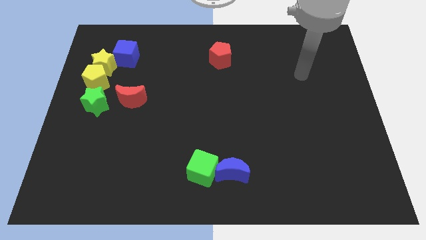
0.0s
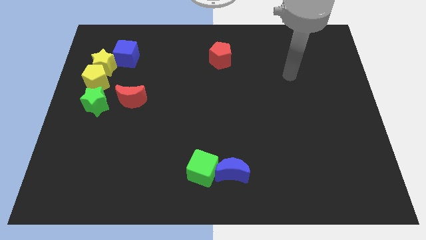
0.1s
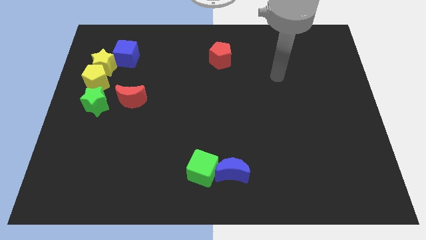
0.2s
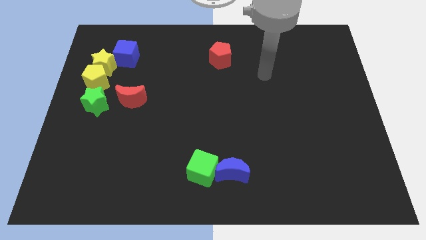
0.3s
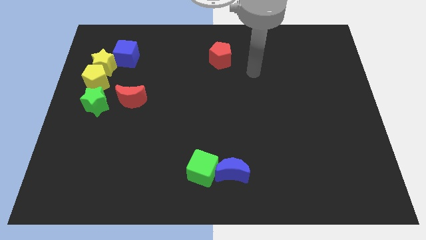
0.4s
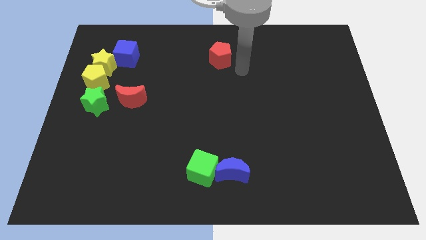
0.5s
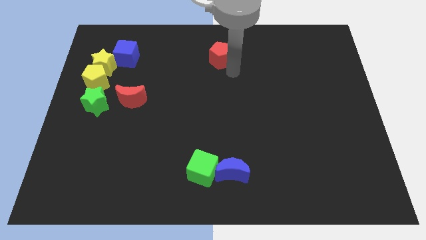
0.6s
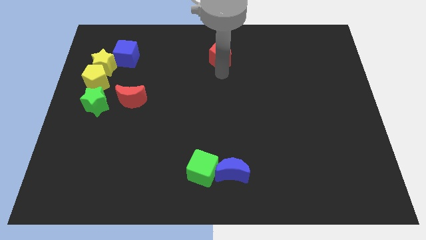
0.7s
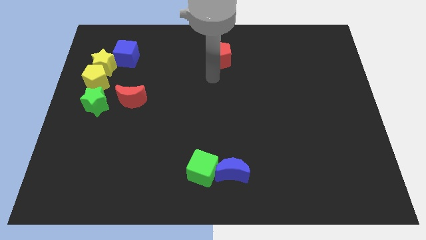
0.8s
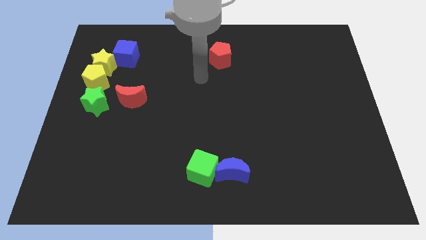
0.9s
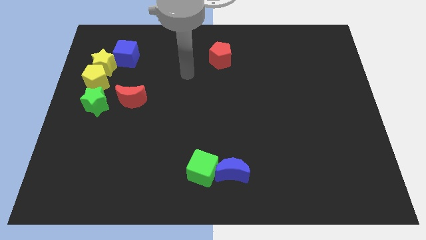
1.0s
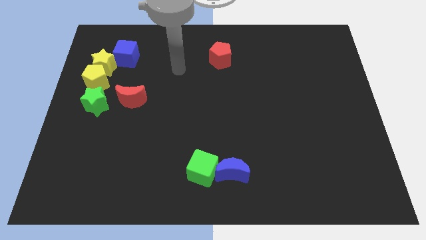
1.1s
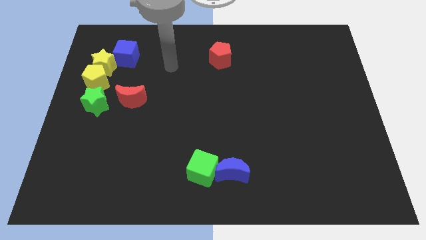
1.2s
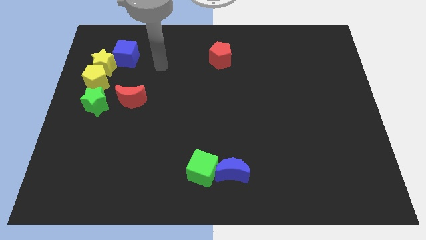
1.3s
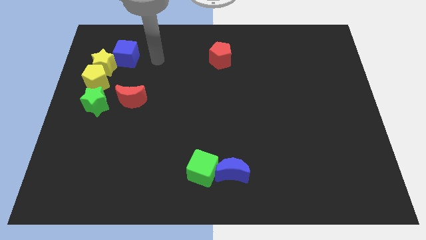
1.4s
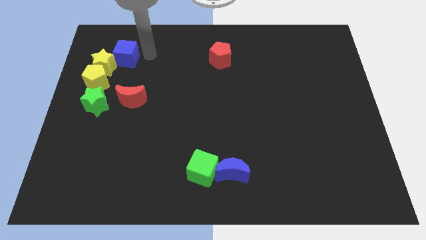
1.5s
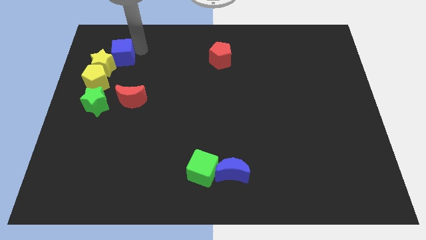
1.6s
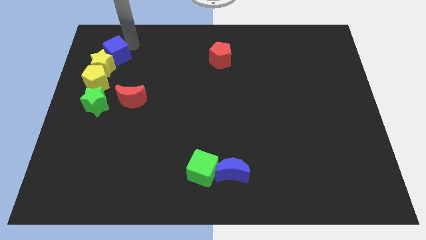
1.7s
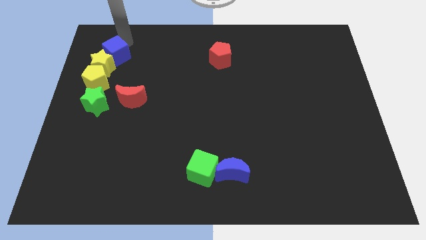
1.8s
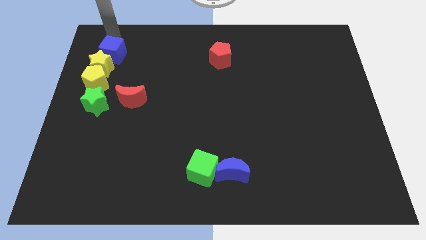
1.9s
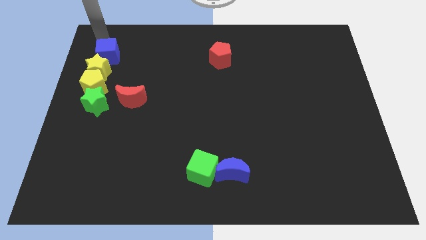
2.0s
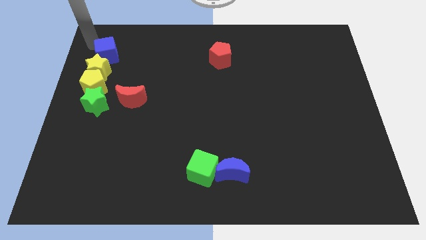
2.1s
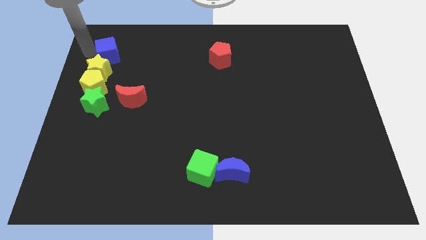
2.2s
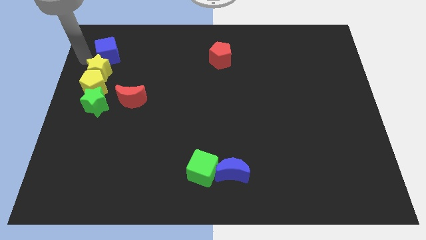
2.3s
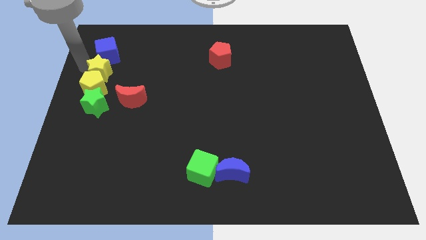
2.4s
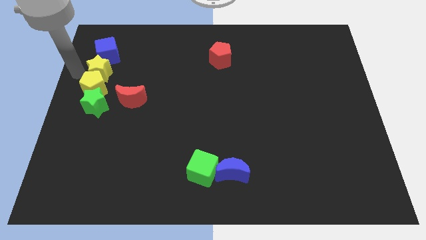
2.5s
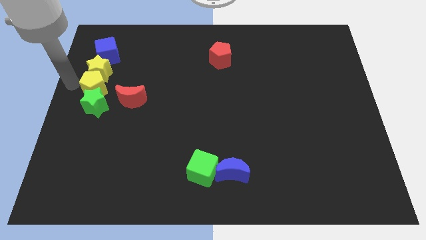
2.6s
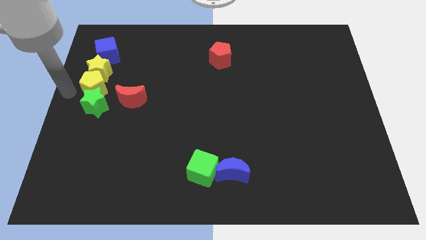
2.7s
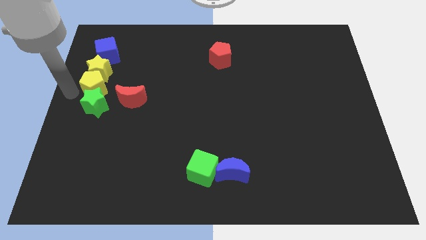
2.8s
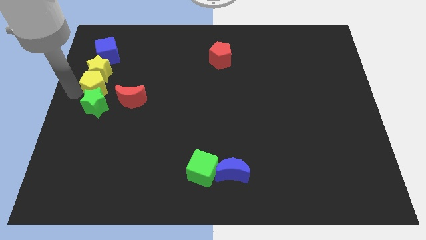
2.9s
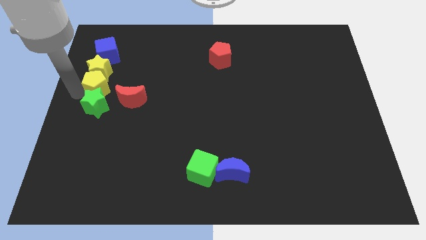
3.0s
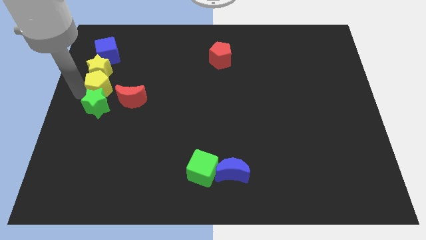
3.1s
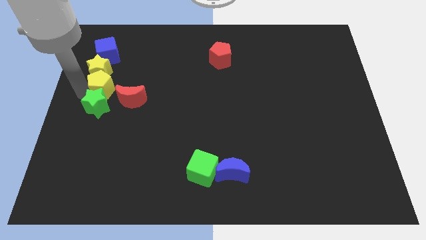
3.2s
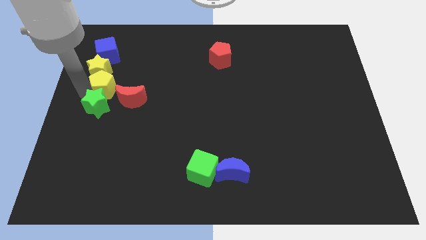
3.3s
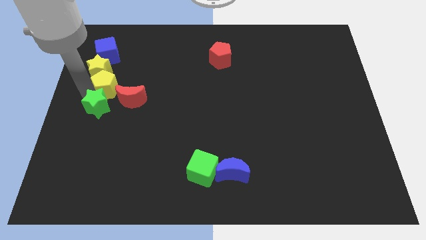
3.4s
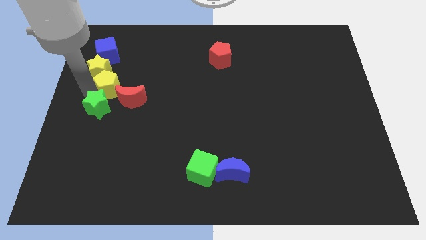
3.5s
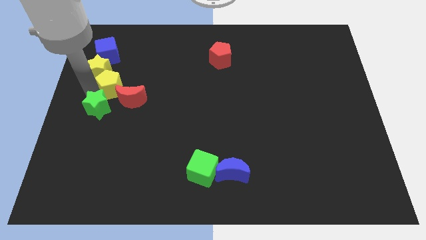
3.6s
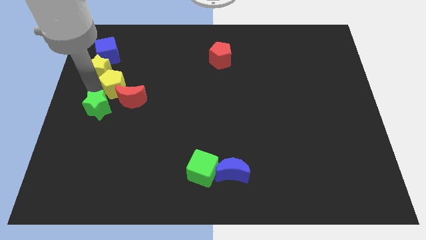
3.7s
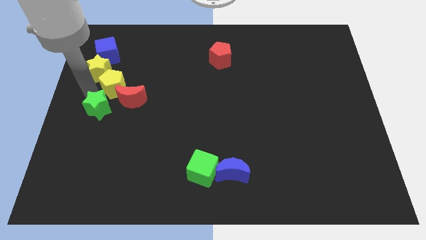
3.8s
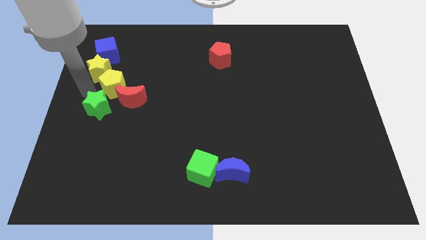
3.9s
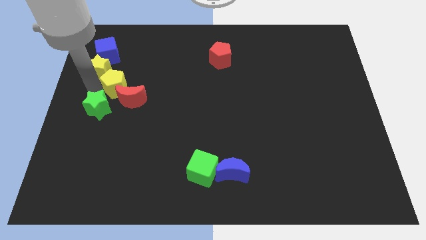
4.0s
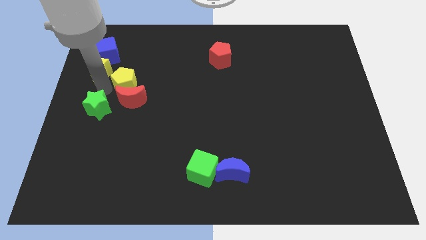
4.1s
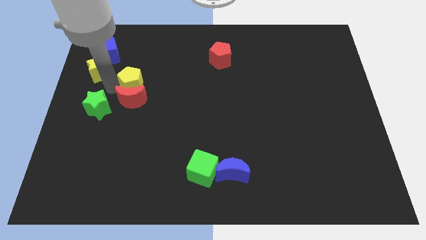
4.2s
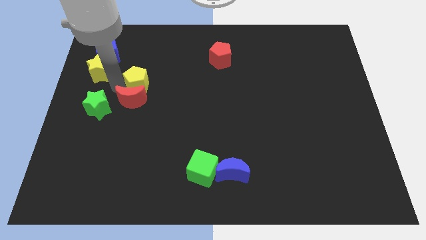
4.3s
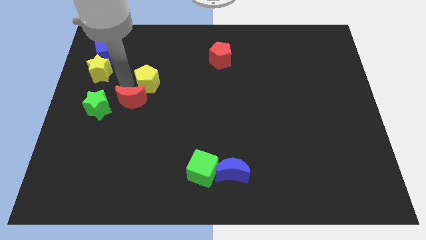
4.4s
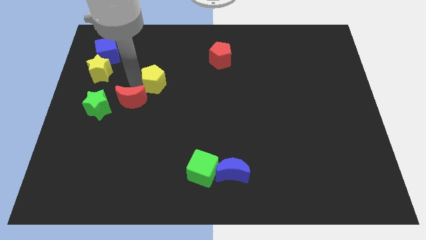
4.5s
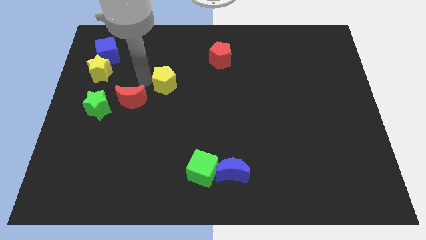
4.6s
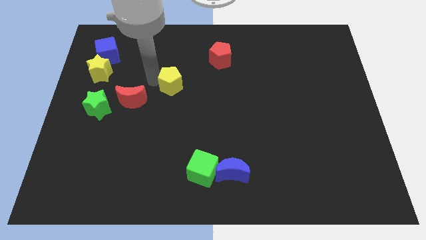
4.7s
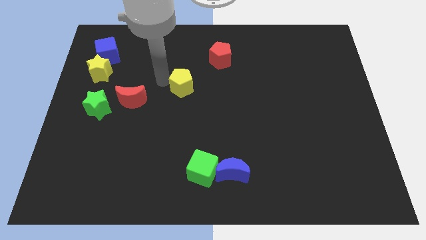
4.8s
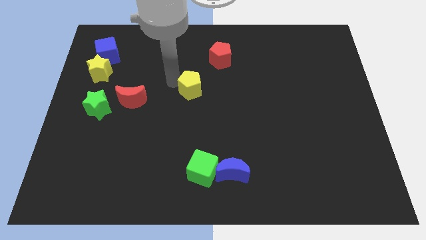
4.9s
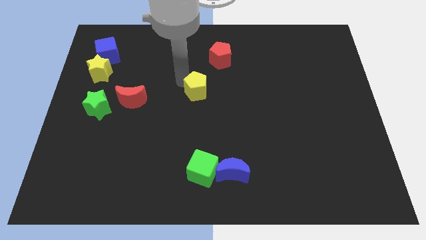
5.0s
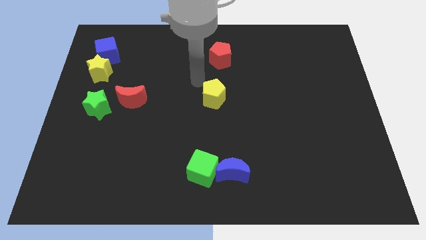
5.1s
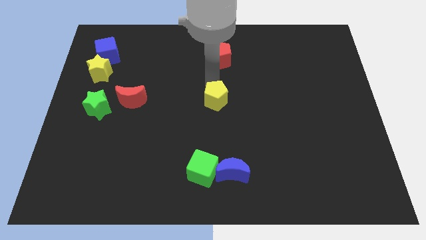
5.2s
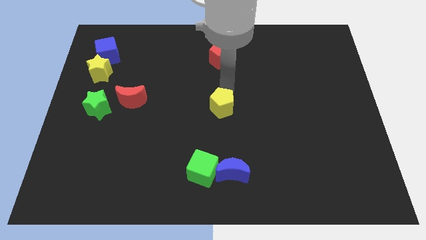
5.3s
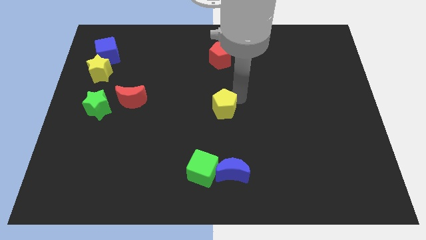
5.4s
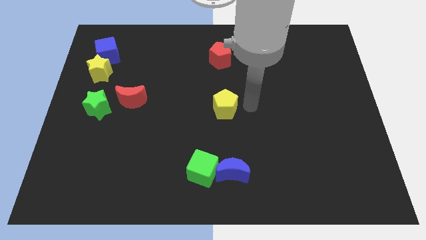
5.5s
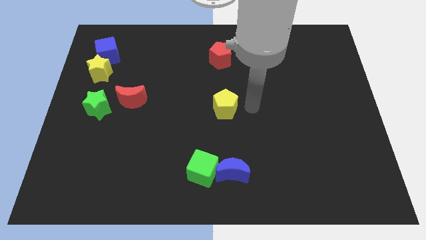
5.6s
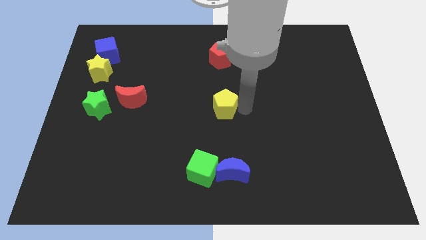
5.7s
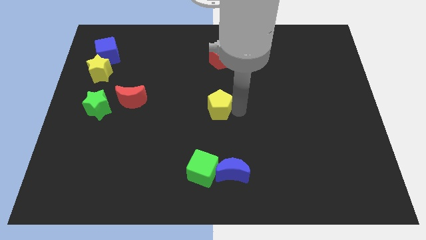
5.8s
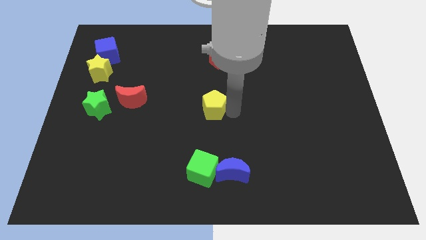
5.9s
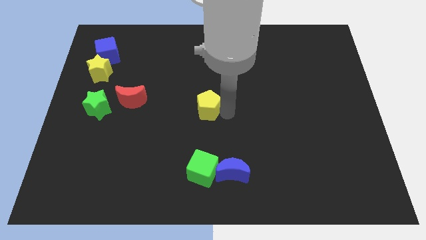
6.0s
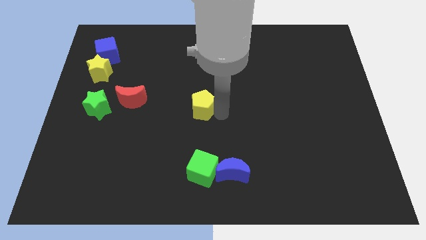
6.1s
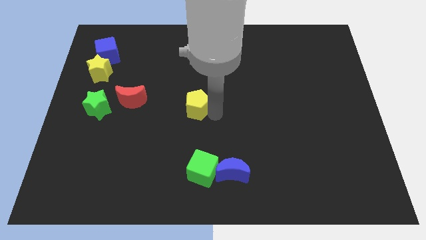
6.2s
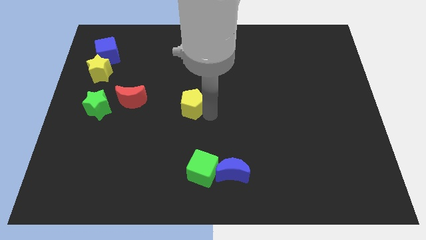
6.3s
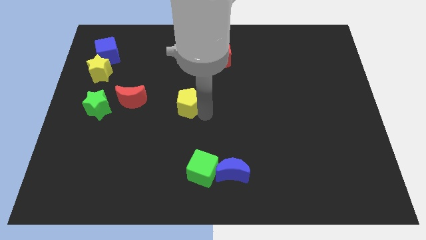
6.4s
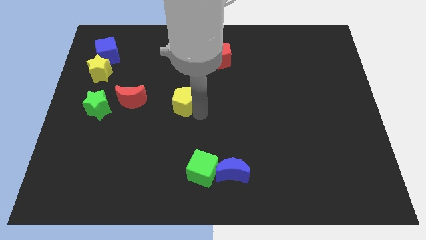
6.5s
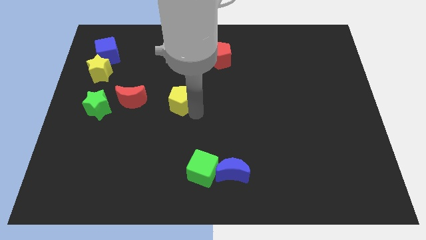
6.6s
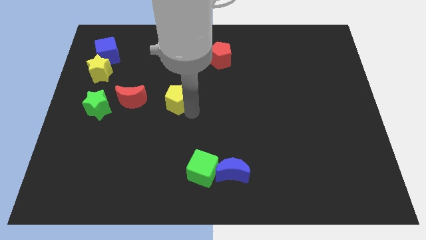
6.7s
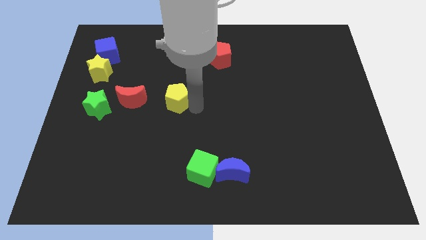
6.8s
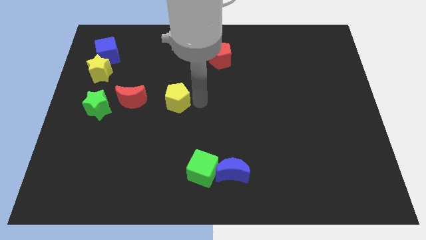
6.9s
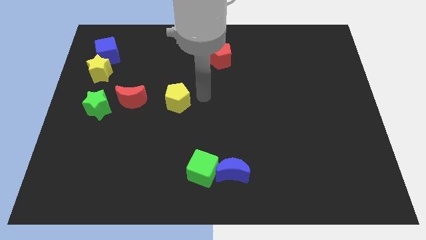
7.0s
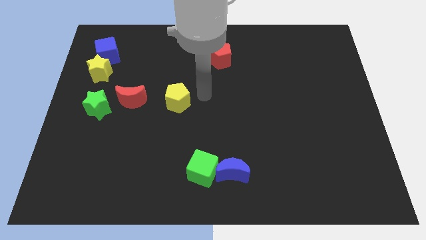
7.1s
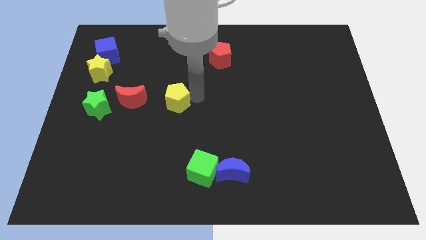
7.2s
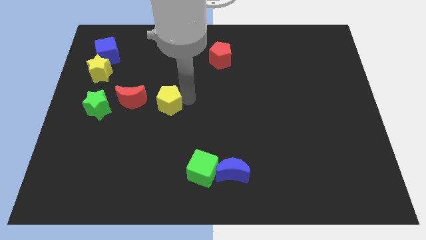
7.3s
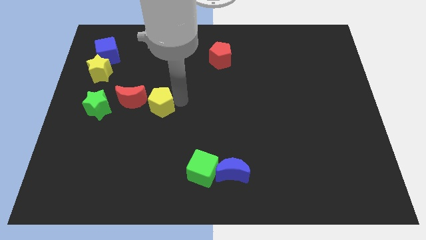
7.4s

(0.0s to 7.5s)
move the yellow pentagon to the right of the green star
